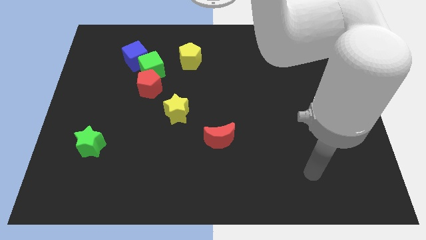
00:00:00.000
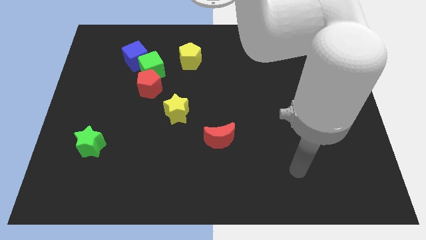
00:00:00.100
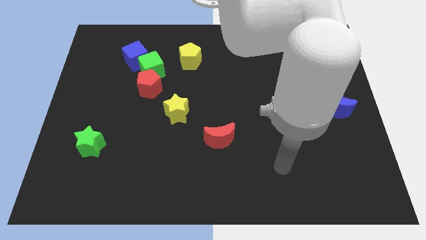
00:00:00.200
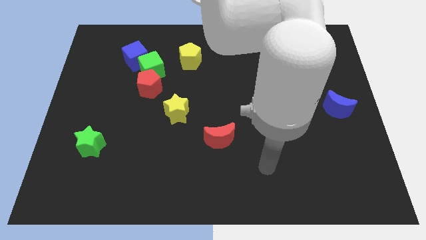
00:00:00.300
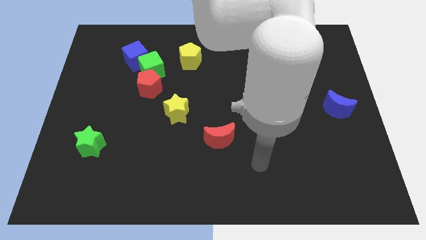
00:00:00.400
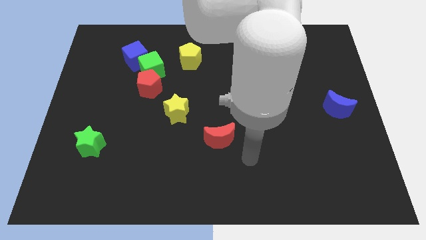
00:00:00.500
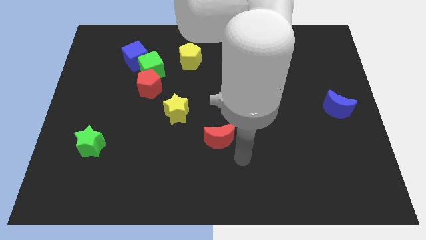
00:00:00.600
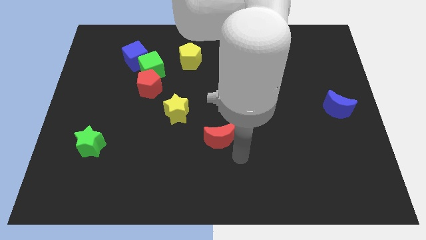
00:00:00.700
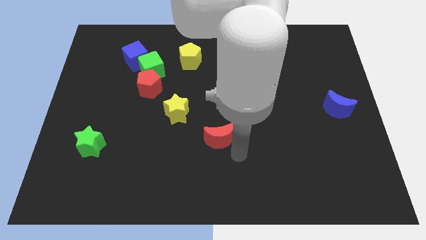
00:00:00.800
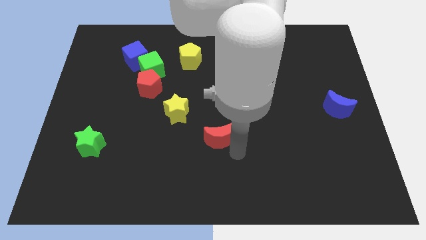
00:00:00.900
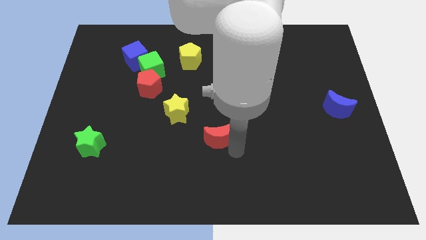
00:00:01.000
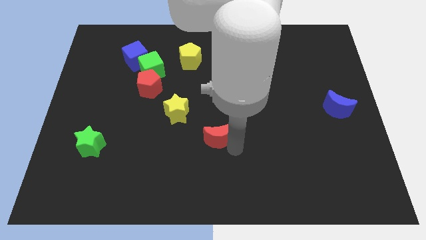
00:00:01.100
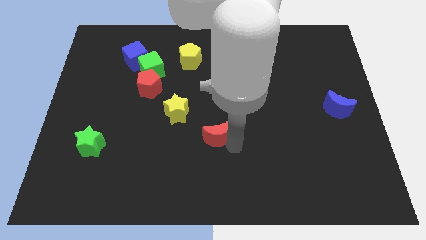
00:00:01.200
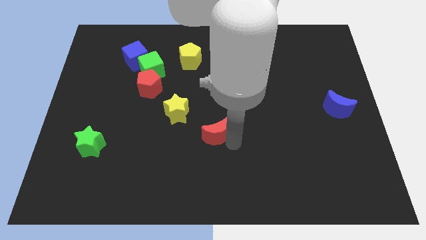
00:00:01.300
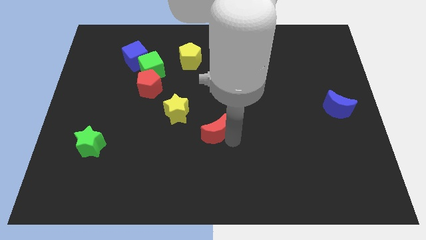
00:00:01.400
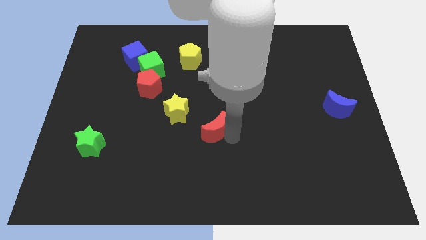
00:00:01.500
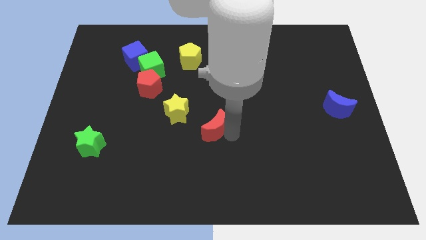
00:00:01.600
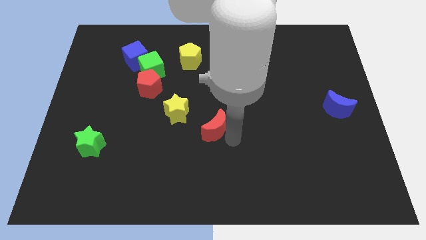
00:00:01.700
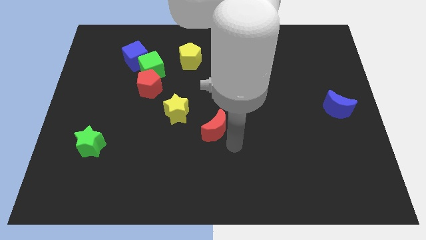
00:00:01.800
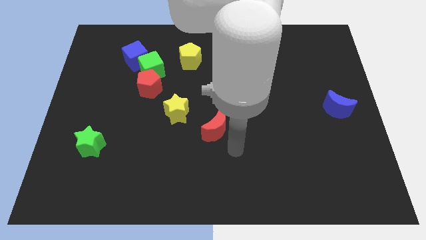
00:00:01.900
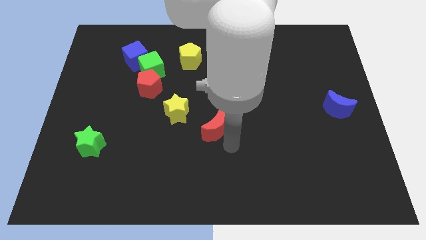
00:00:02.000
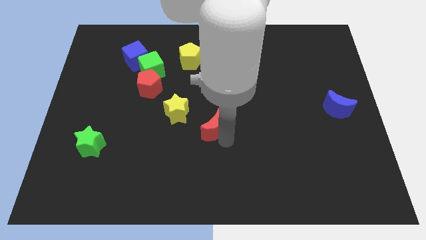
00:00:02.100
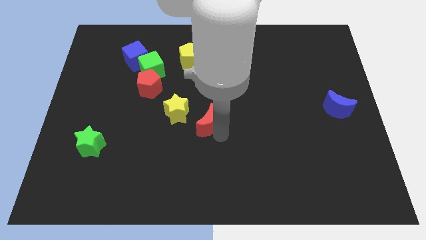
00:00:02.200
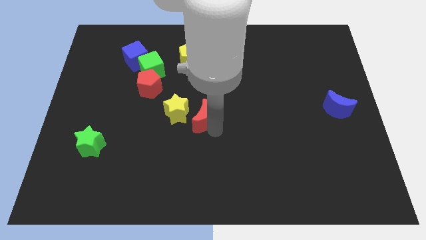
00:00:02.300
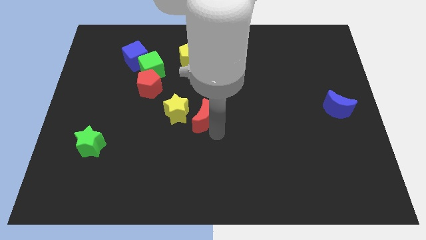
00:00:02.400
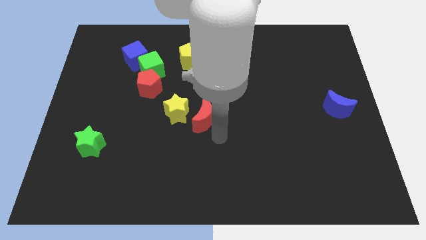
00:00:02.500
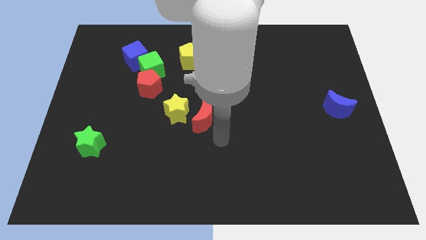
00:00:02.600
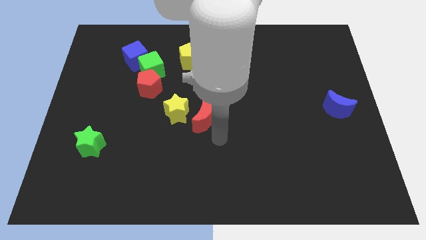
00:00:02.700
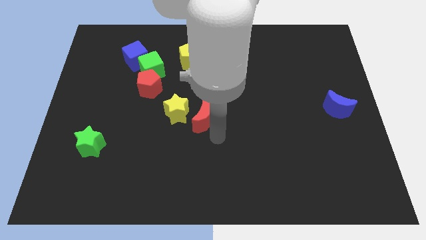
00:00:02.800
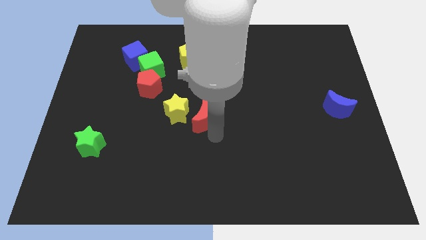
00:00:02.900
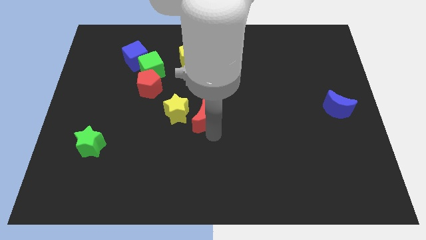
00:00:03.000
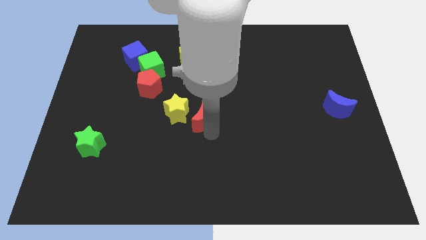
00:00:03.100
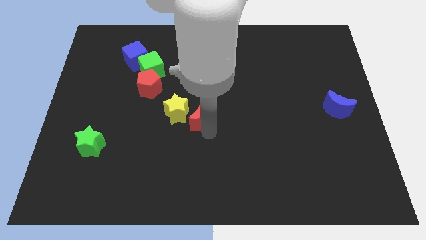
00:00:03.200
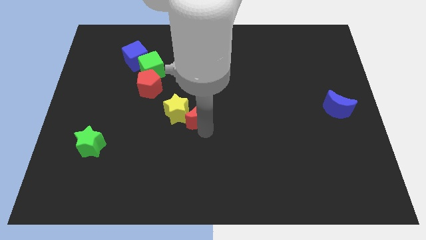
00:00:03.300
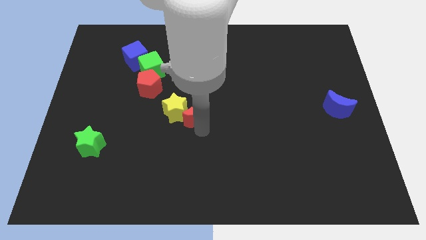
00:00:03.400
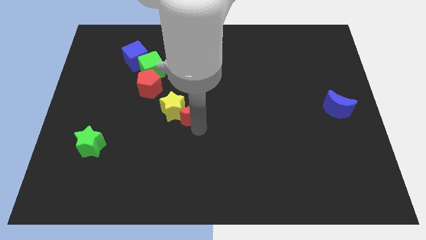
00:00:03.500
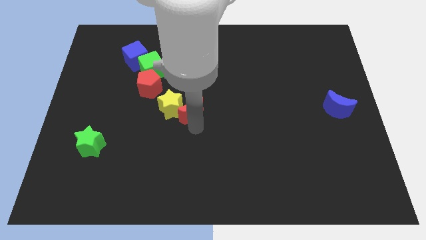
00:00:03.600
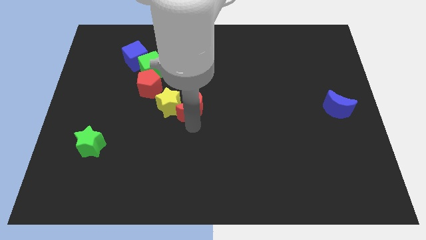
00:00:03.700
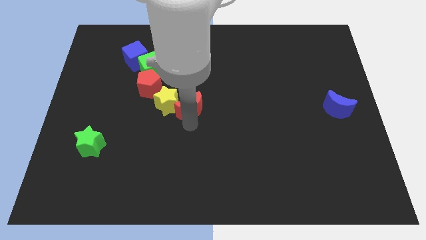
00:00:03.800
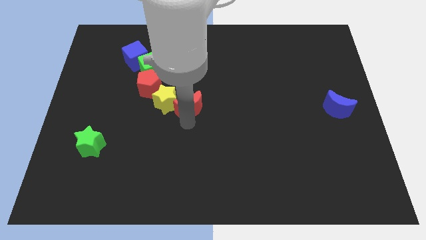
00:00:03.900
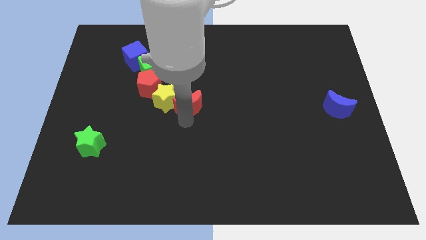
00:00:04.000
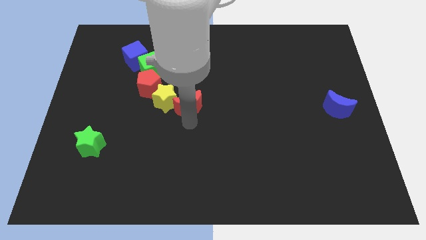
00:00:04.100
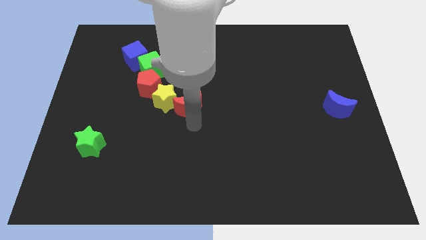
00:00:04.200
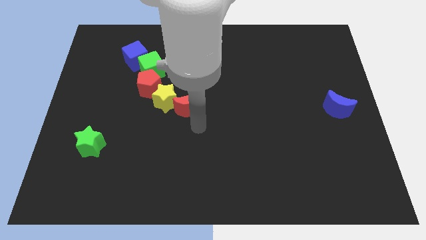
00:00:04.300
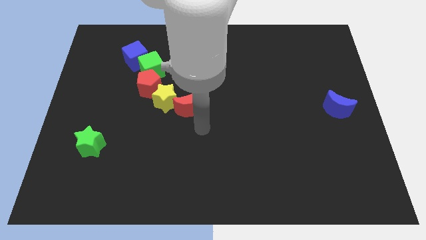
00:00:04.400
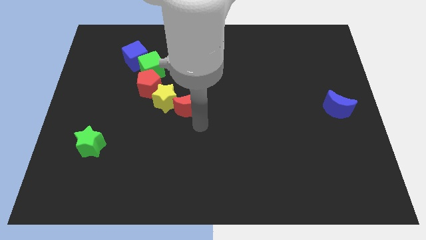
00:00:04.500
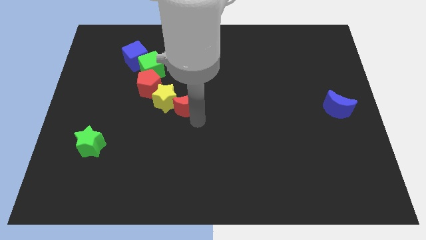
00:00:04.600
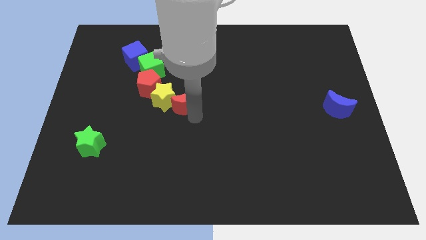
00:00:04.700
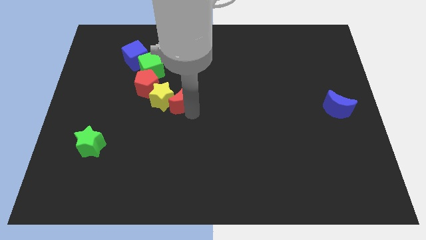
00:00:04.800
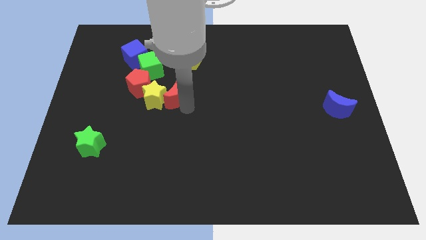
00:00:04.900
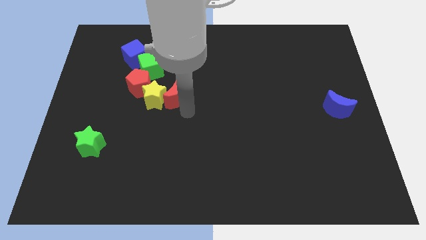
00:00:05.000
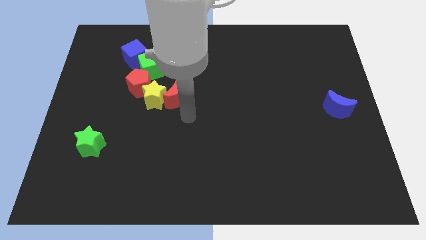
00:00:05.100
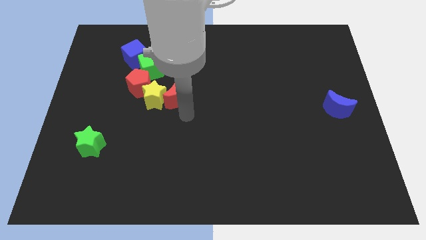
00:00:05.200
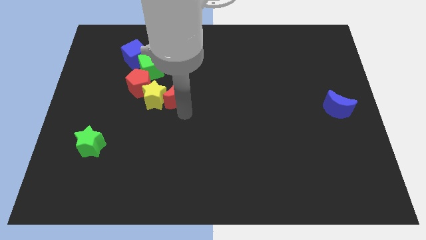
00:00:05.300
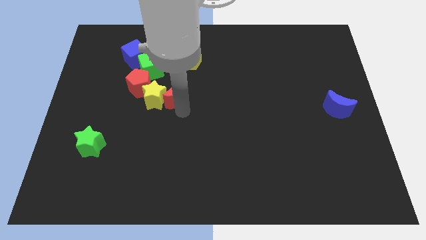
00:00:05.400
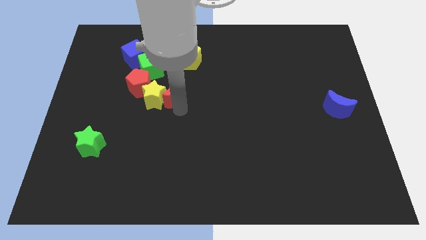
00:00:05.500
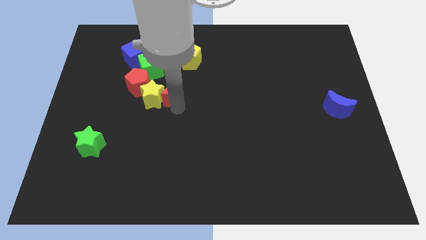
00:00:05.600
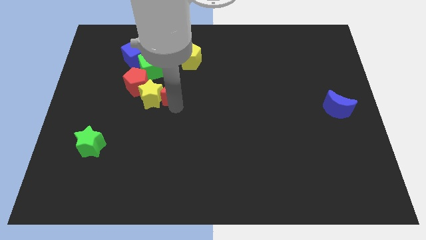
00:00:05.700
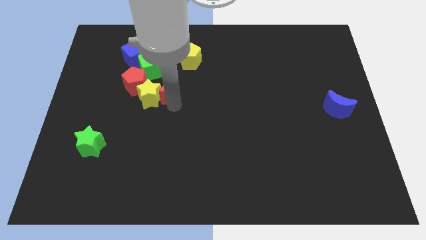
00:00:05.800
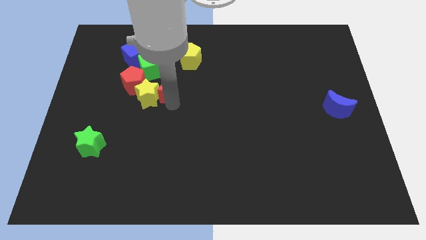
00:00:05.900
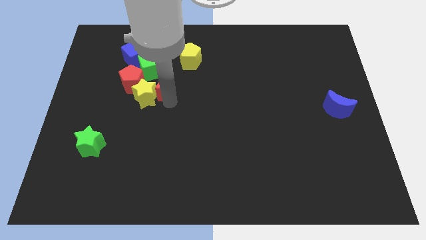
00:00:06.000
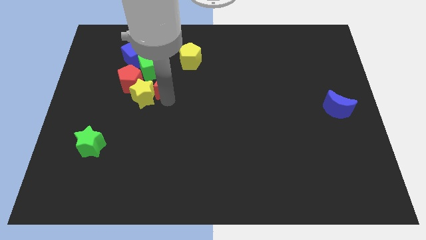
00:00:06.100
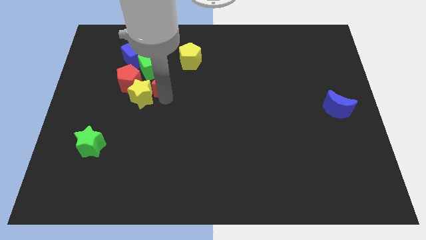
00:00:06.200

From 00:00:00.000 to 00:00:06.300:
slide the red moon towards the green cube

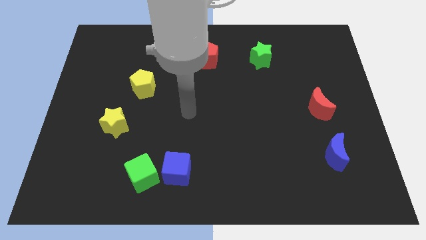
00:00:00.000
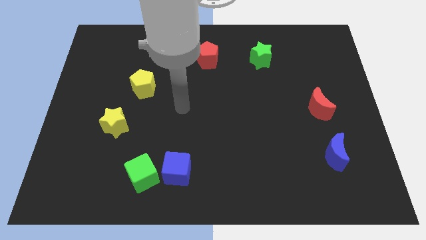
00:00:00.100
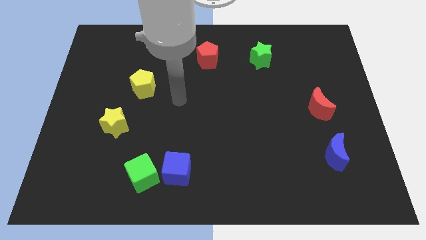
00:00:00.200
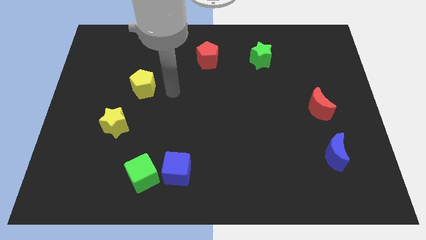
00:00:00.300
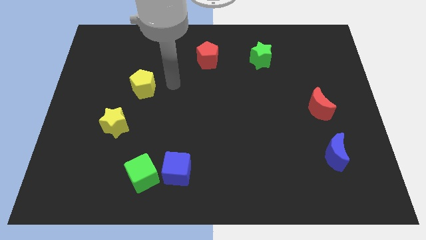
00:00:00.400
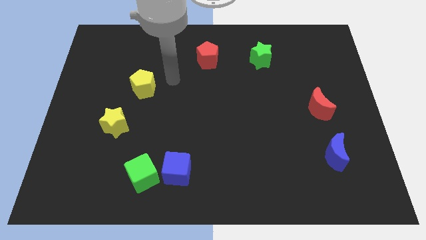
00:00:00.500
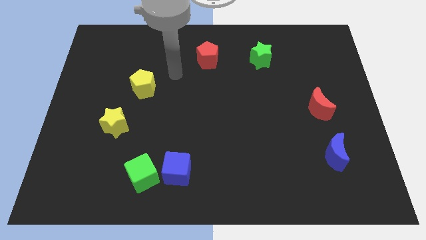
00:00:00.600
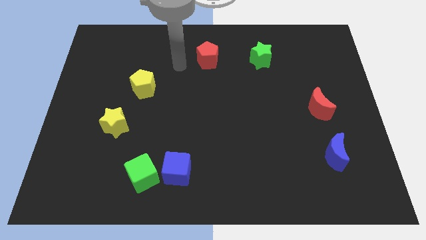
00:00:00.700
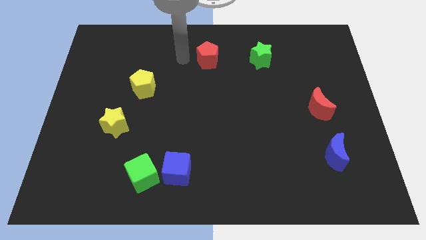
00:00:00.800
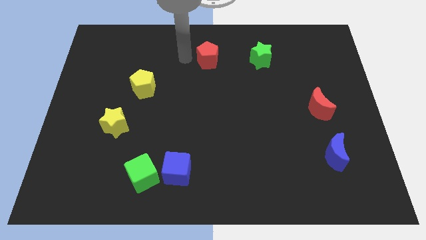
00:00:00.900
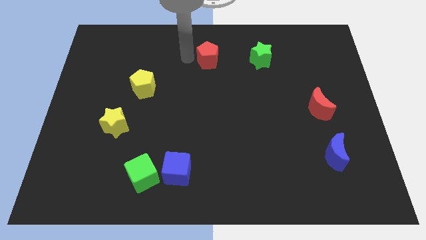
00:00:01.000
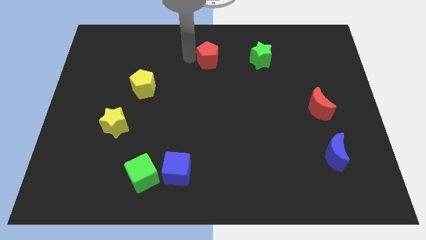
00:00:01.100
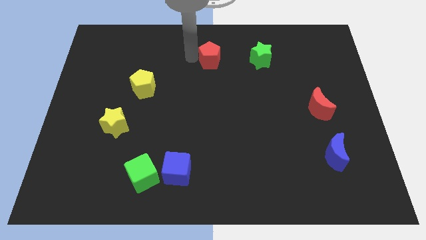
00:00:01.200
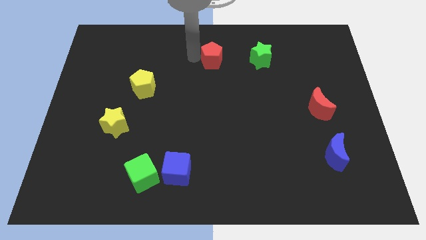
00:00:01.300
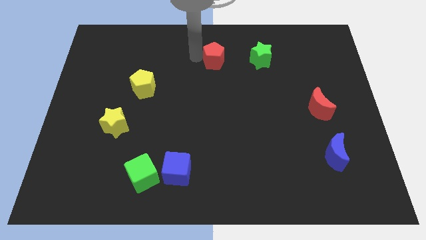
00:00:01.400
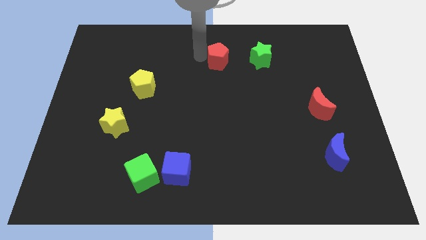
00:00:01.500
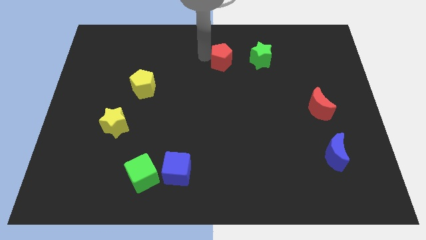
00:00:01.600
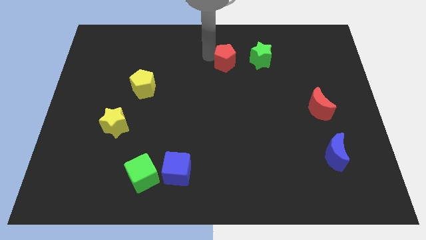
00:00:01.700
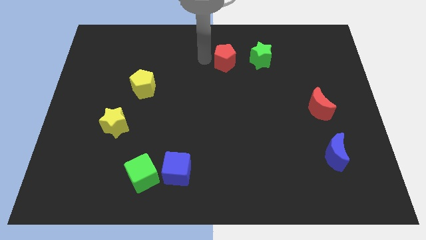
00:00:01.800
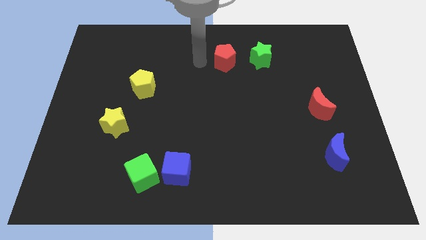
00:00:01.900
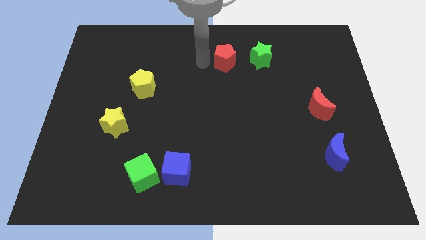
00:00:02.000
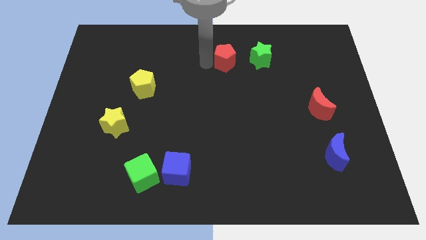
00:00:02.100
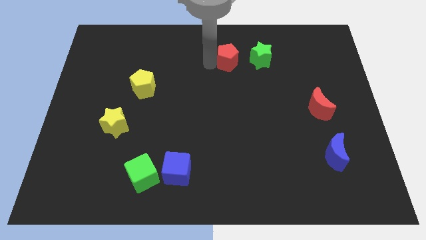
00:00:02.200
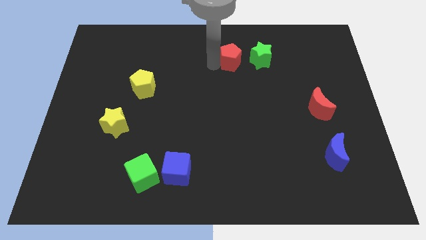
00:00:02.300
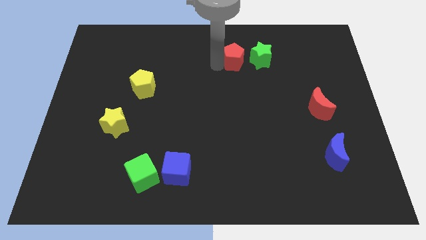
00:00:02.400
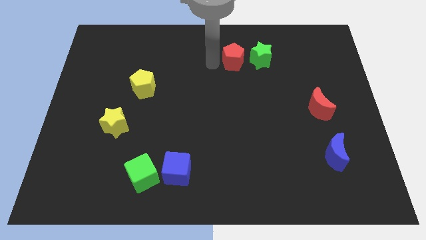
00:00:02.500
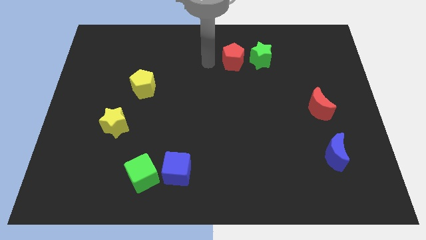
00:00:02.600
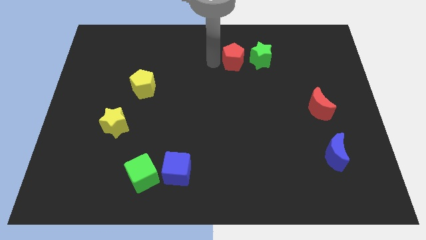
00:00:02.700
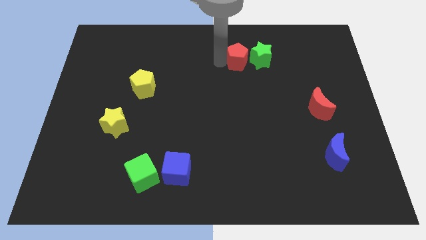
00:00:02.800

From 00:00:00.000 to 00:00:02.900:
put the red pentagon towards the green star
